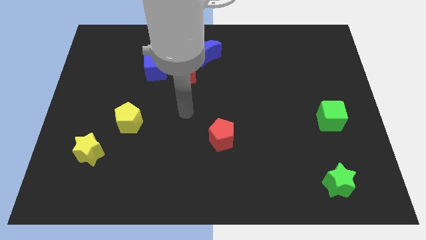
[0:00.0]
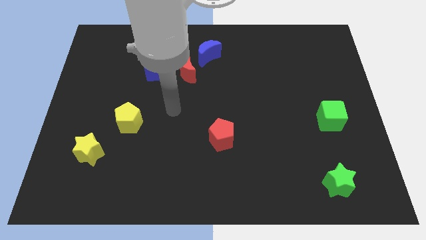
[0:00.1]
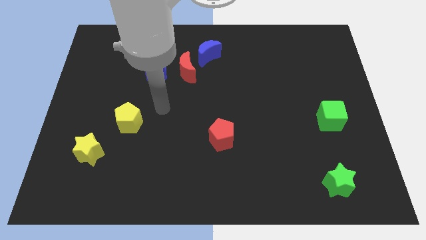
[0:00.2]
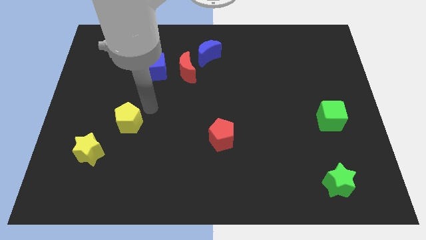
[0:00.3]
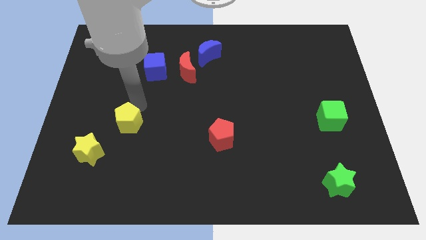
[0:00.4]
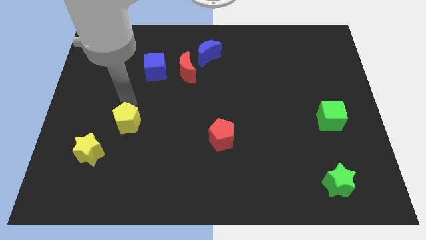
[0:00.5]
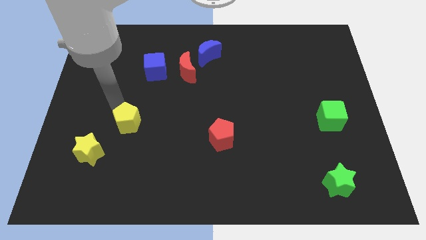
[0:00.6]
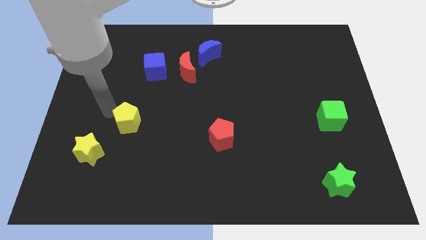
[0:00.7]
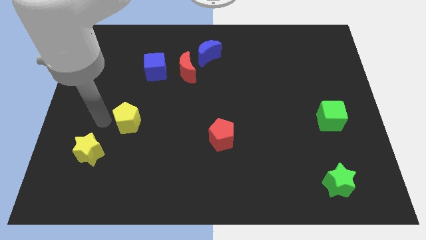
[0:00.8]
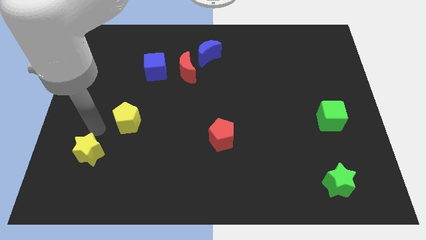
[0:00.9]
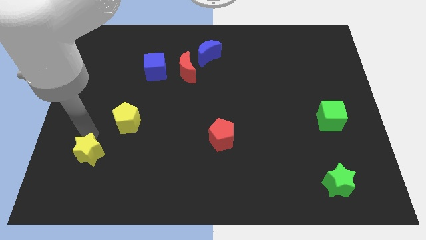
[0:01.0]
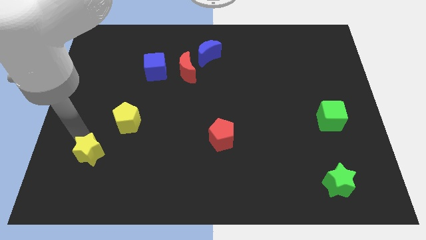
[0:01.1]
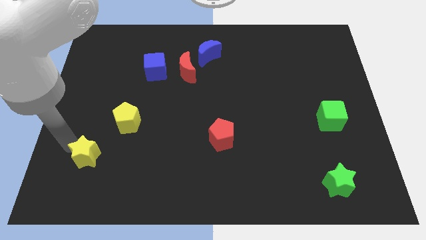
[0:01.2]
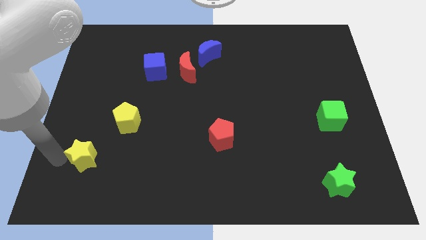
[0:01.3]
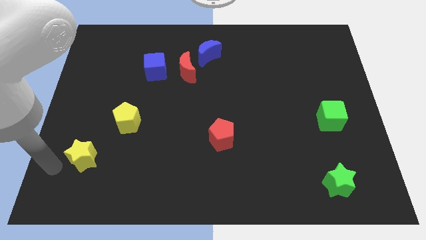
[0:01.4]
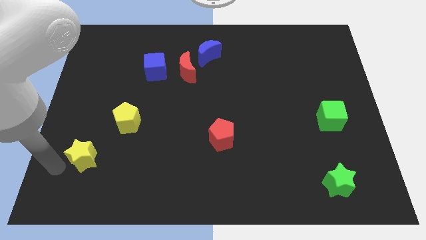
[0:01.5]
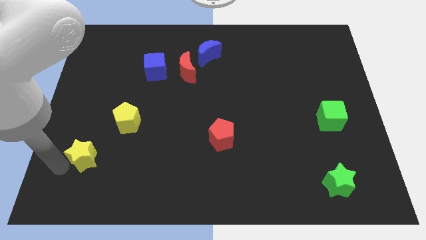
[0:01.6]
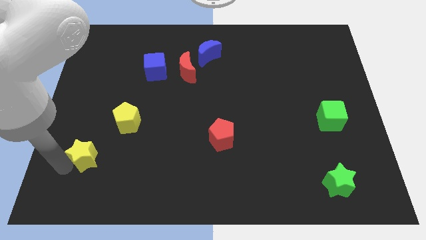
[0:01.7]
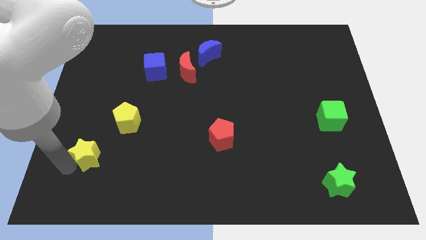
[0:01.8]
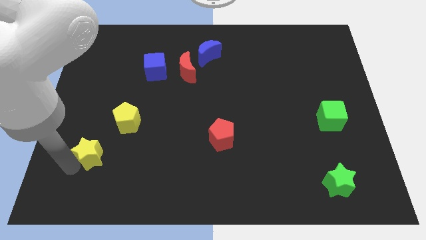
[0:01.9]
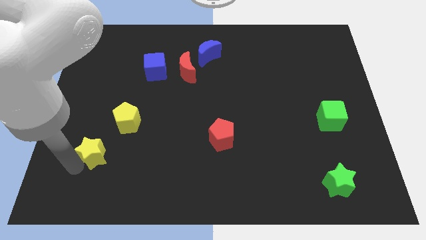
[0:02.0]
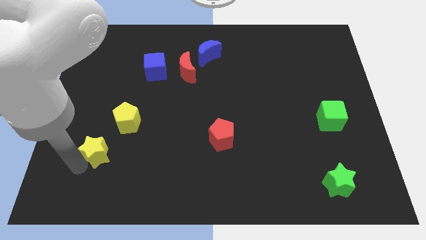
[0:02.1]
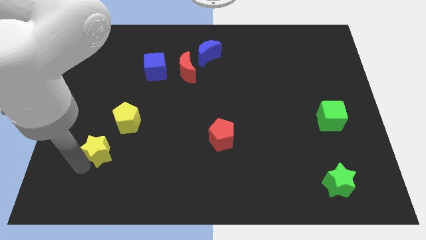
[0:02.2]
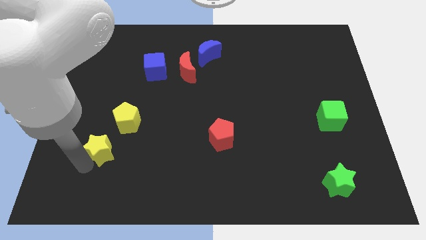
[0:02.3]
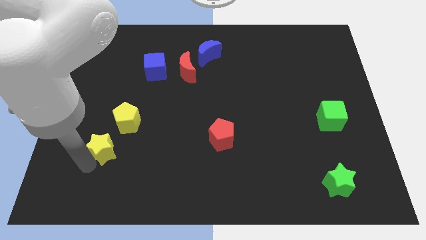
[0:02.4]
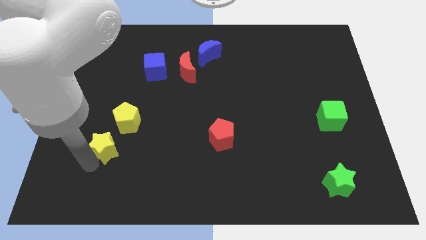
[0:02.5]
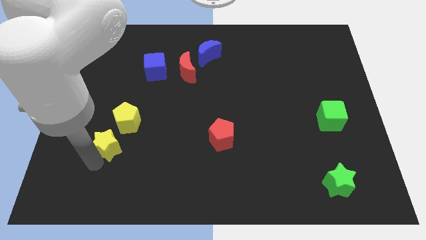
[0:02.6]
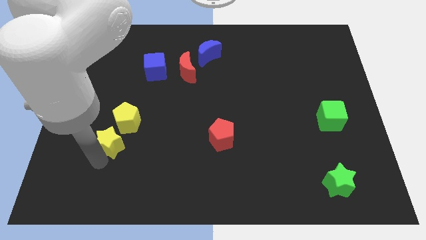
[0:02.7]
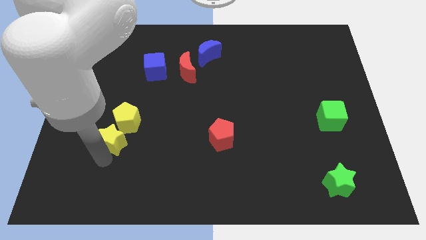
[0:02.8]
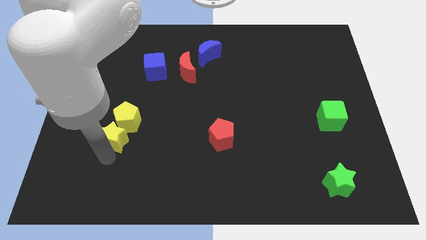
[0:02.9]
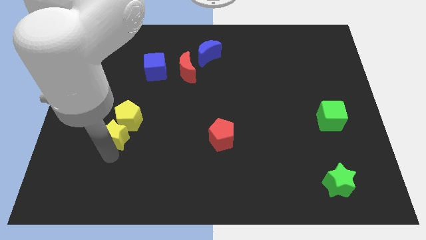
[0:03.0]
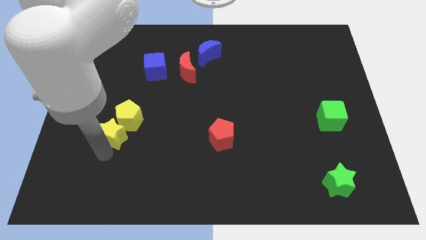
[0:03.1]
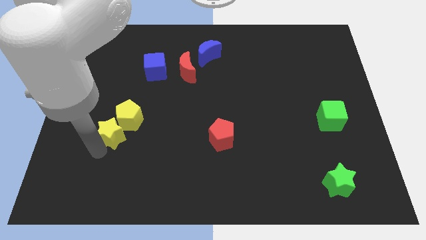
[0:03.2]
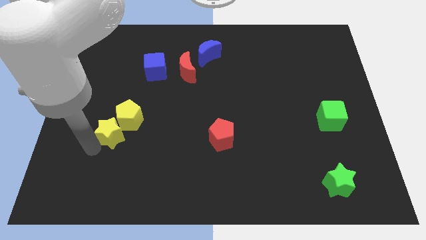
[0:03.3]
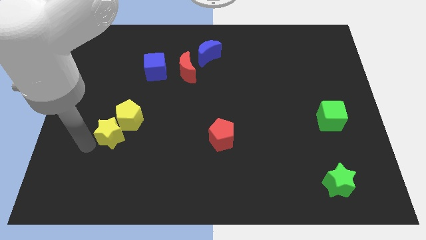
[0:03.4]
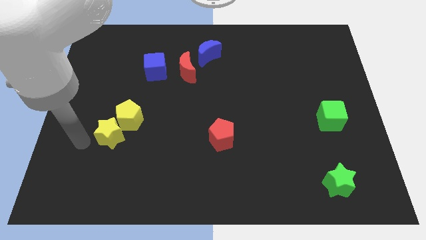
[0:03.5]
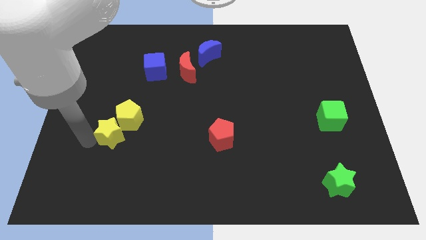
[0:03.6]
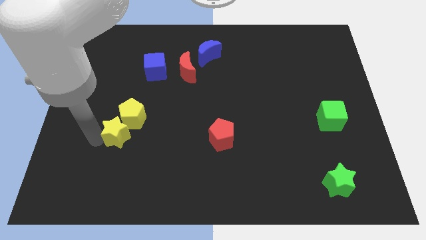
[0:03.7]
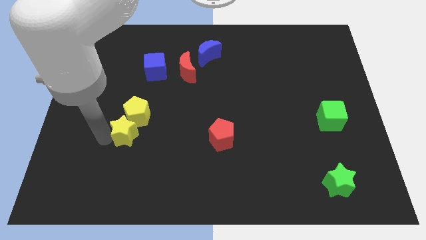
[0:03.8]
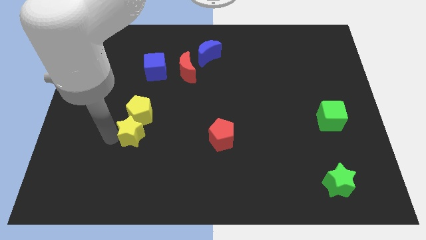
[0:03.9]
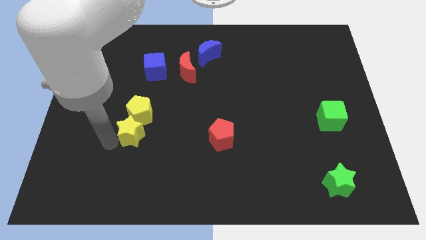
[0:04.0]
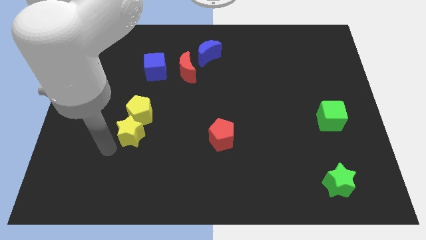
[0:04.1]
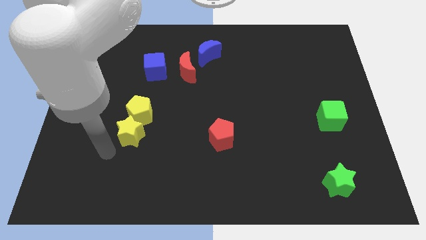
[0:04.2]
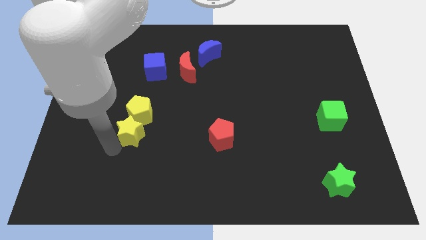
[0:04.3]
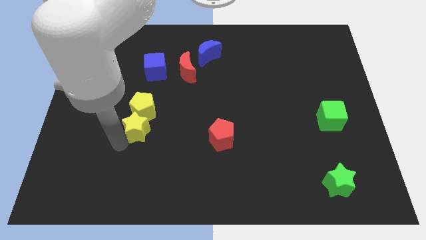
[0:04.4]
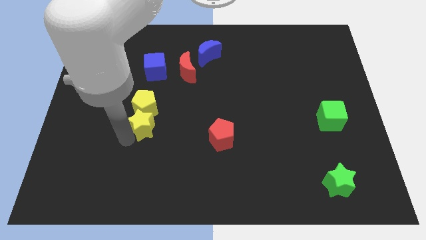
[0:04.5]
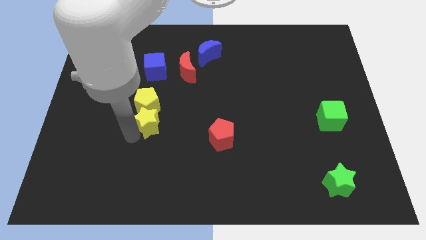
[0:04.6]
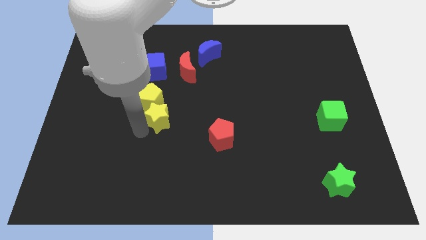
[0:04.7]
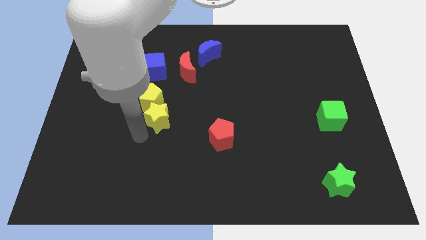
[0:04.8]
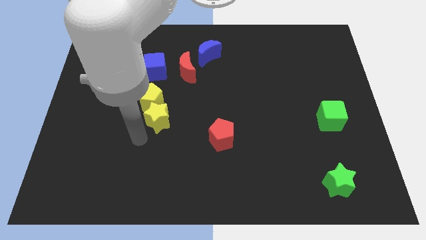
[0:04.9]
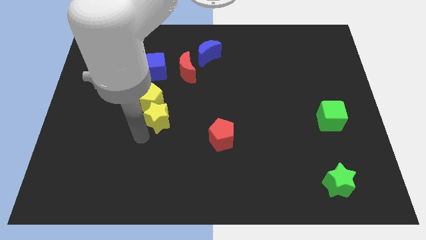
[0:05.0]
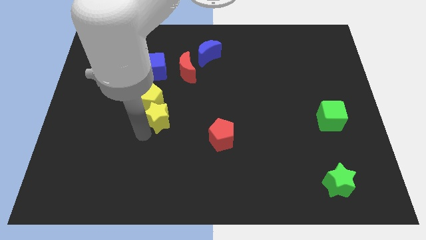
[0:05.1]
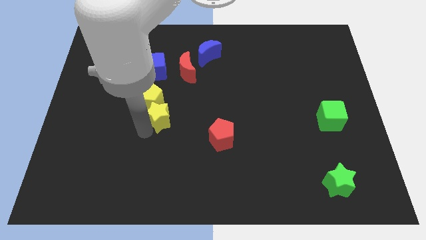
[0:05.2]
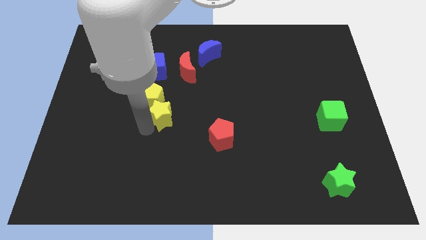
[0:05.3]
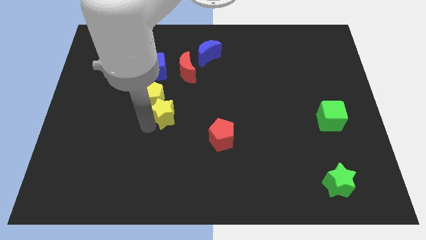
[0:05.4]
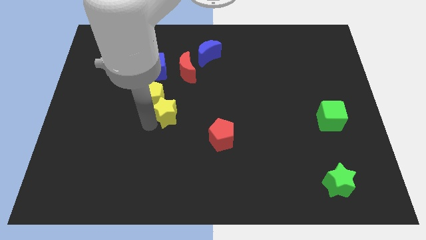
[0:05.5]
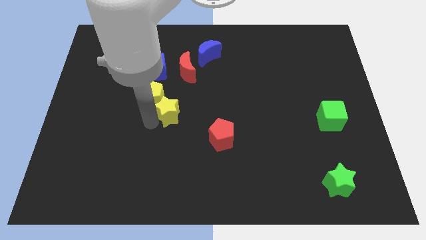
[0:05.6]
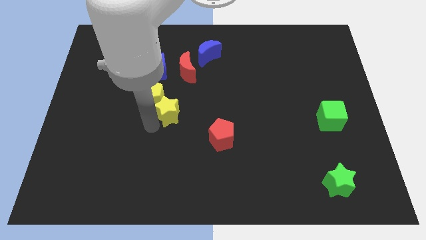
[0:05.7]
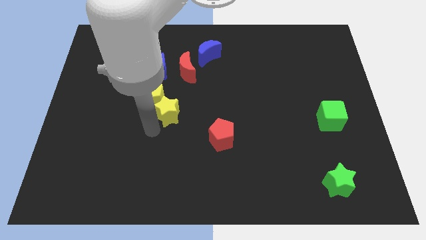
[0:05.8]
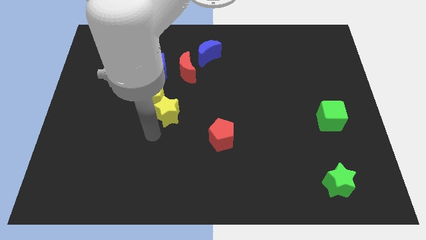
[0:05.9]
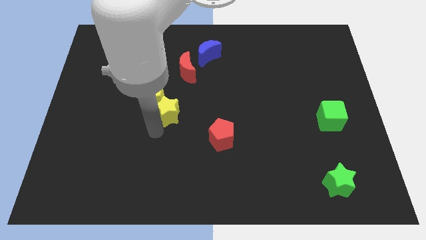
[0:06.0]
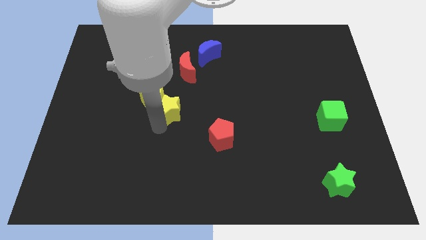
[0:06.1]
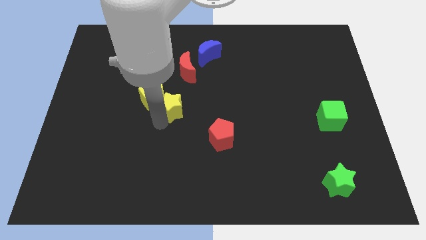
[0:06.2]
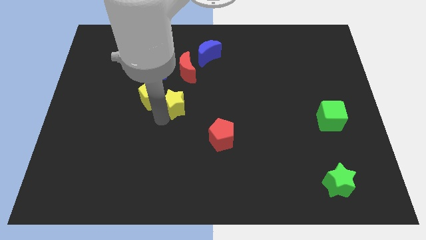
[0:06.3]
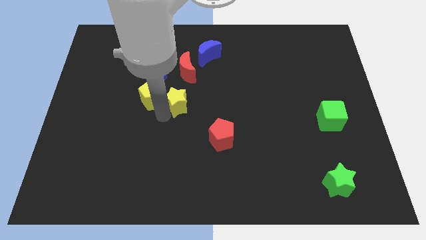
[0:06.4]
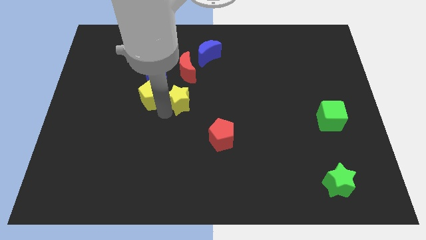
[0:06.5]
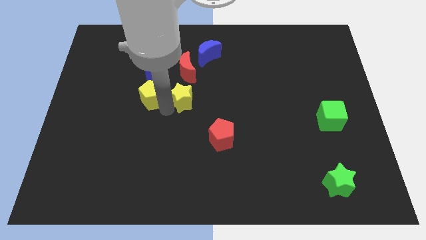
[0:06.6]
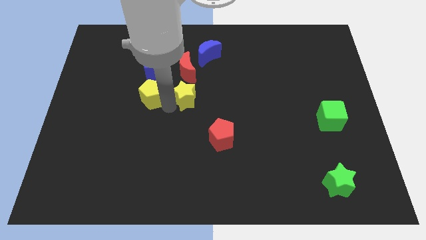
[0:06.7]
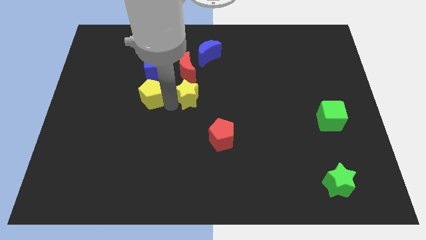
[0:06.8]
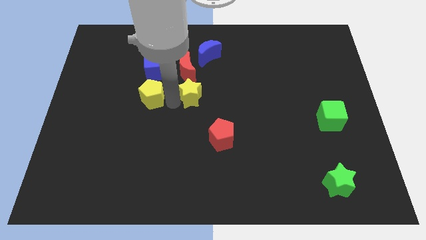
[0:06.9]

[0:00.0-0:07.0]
push the yellow star to the bottom of the blue moon

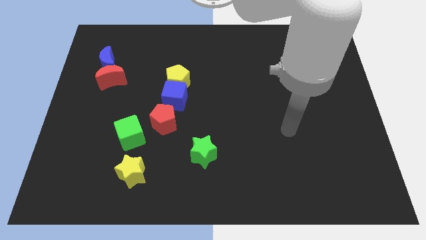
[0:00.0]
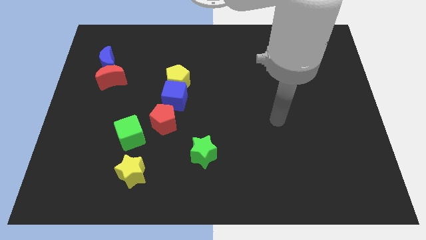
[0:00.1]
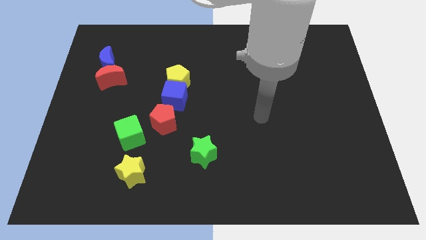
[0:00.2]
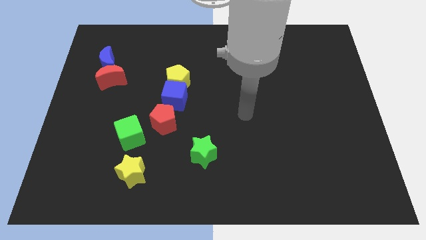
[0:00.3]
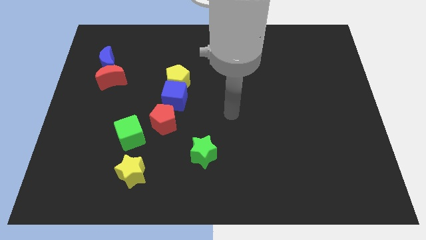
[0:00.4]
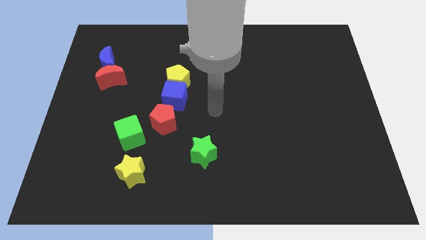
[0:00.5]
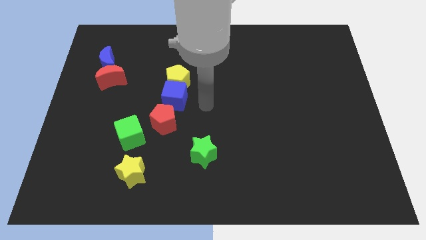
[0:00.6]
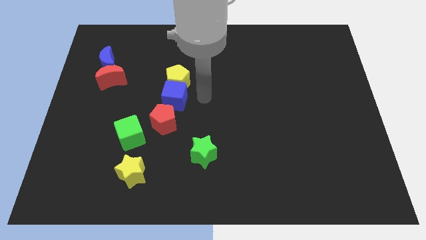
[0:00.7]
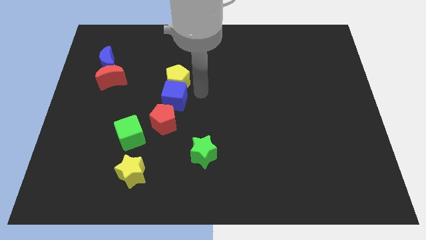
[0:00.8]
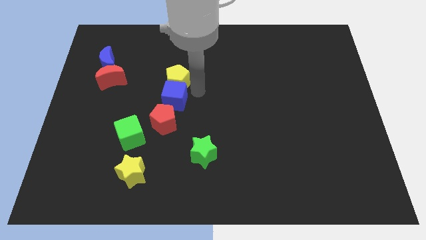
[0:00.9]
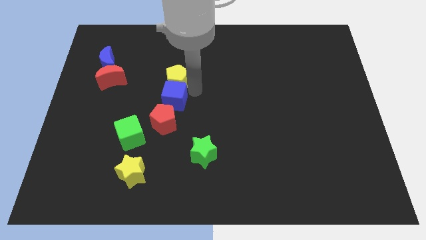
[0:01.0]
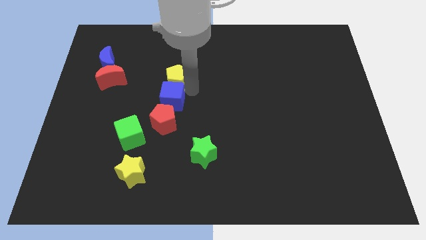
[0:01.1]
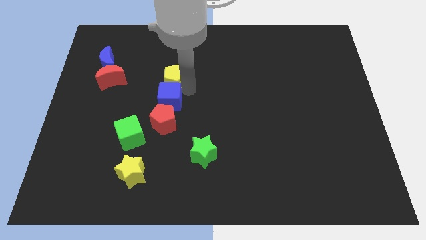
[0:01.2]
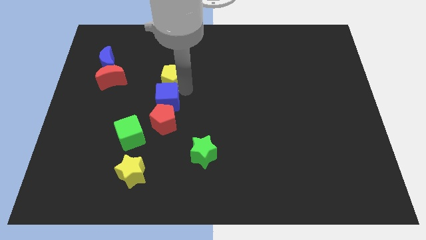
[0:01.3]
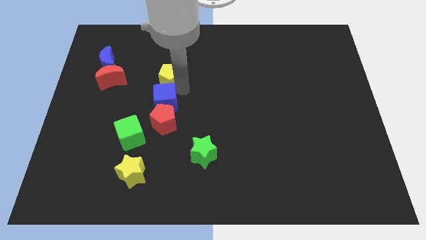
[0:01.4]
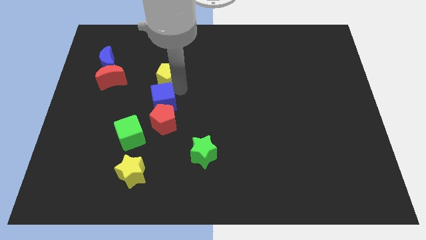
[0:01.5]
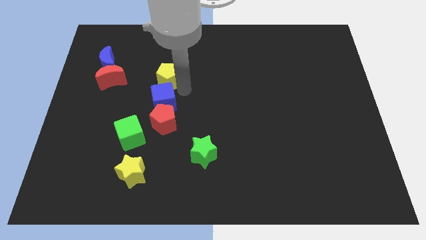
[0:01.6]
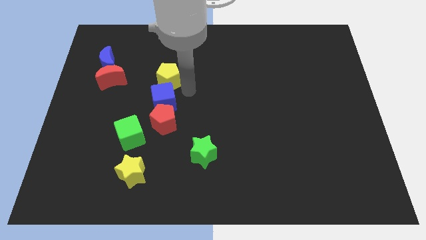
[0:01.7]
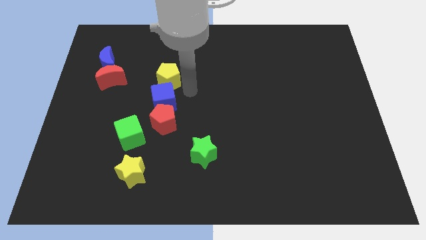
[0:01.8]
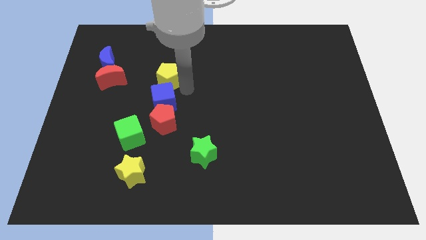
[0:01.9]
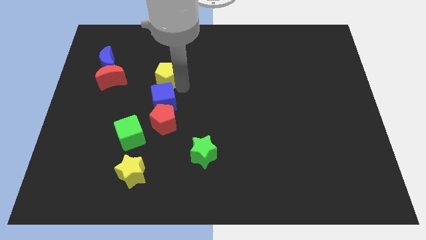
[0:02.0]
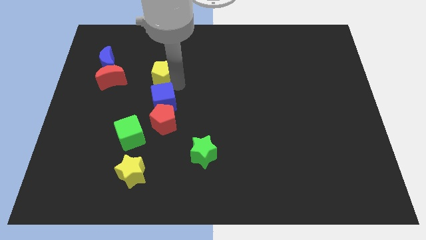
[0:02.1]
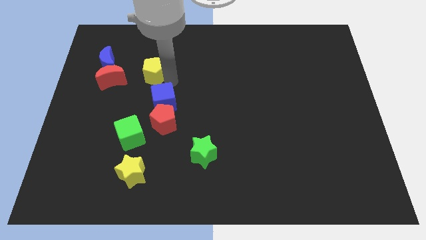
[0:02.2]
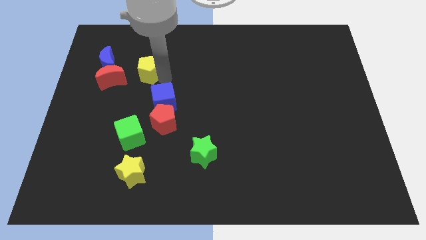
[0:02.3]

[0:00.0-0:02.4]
slide the yellow pentagon to the top right of the red moon
